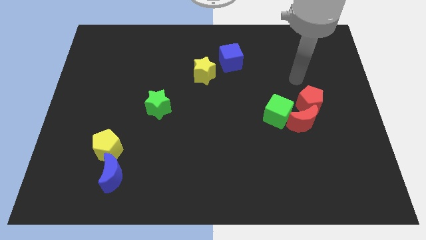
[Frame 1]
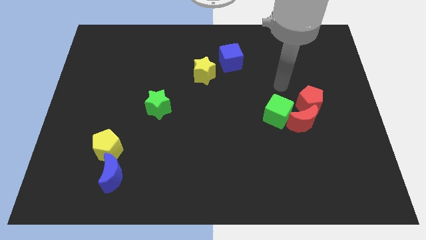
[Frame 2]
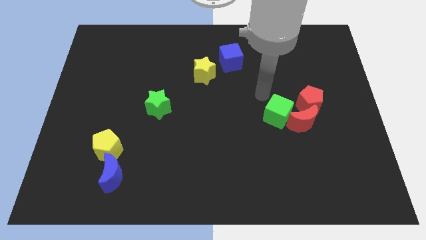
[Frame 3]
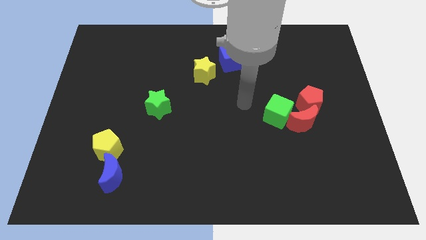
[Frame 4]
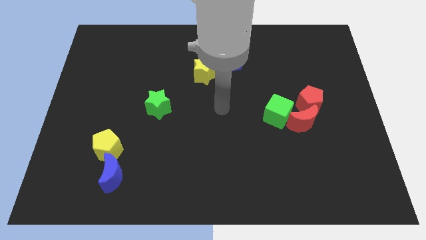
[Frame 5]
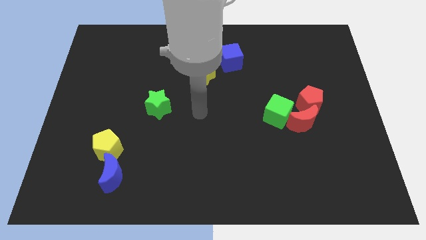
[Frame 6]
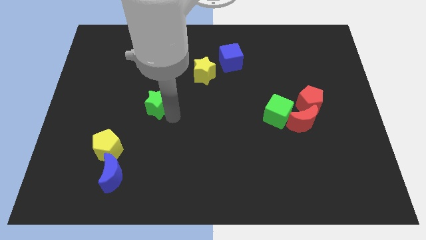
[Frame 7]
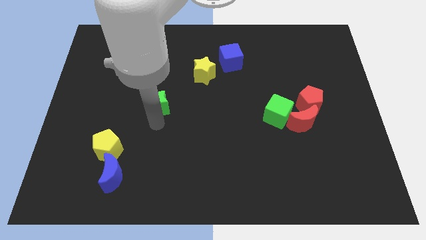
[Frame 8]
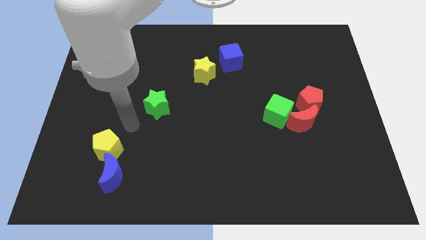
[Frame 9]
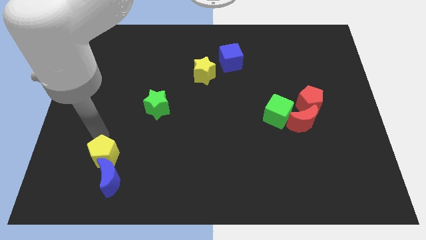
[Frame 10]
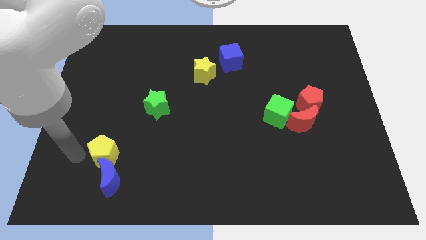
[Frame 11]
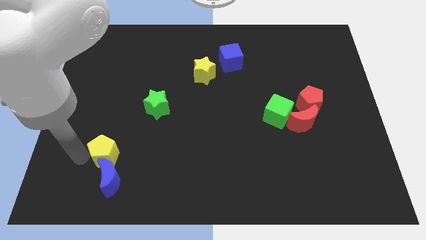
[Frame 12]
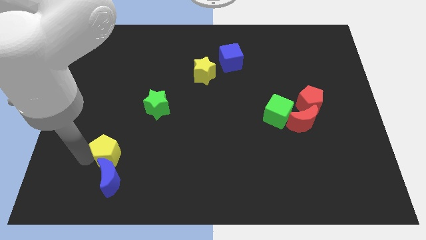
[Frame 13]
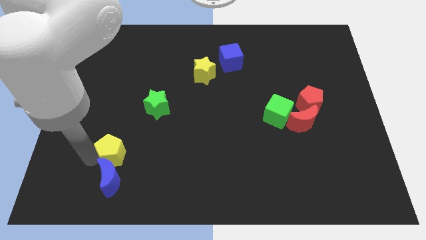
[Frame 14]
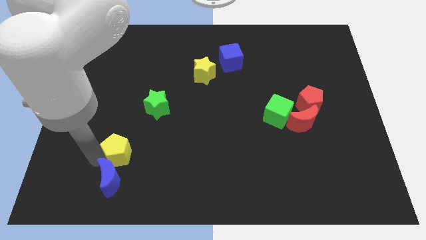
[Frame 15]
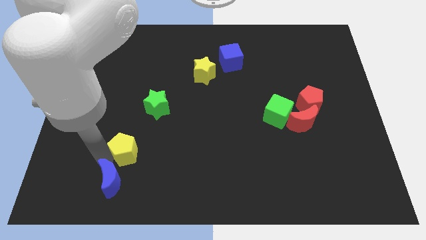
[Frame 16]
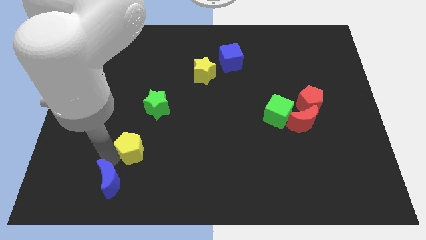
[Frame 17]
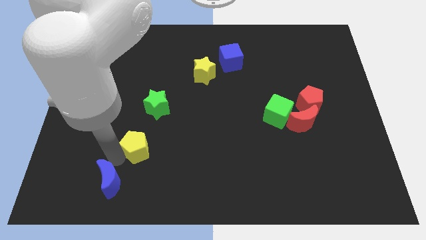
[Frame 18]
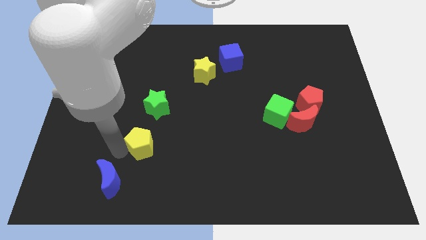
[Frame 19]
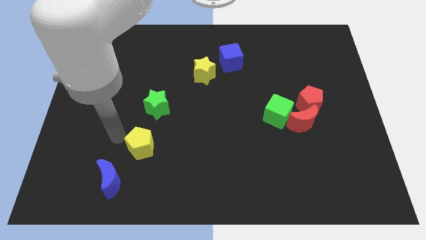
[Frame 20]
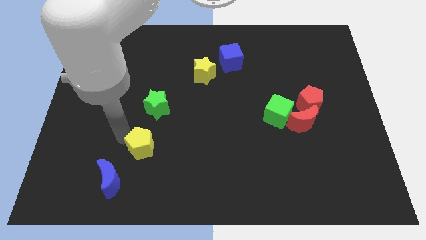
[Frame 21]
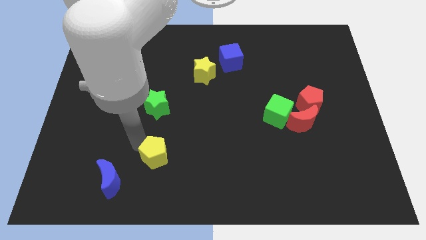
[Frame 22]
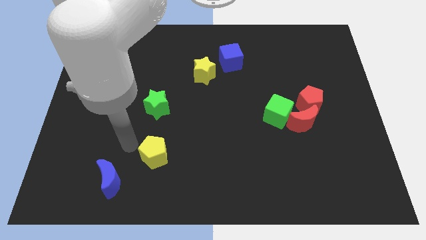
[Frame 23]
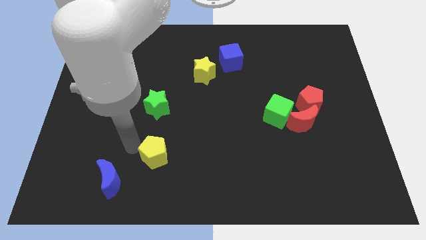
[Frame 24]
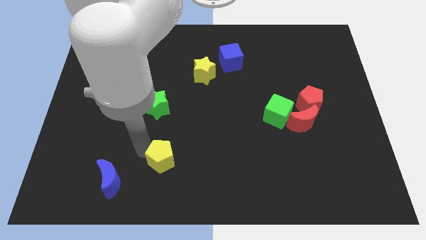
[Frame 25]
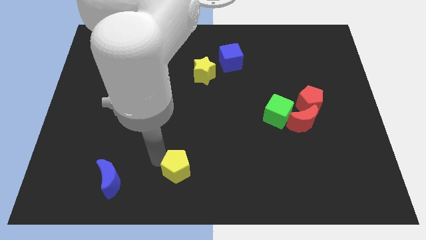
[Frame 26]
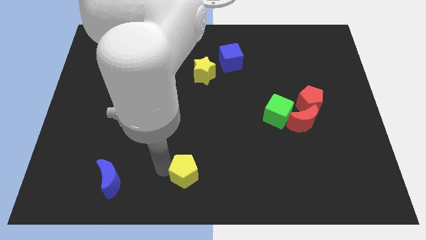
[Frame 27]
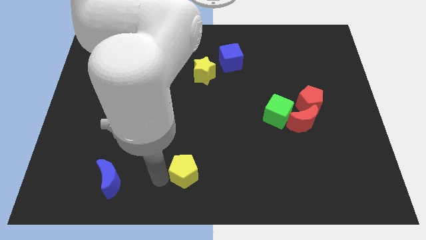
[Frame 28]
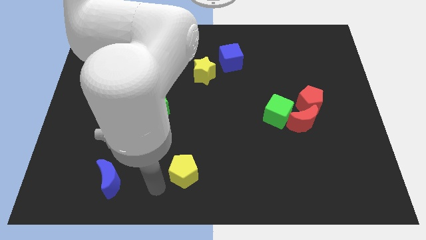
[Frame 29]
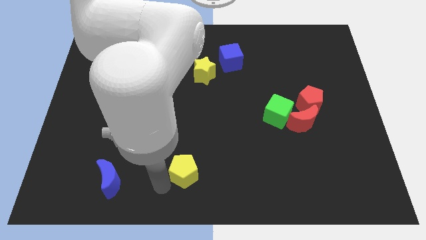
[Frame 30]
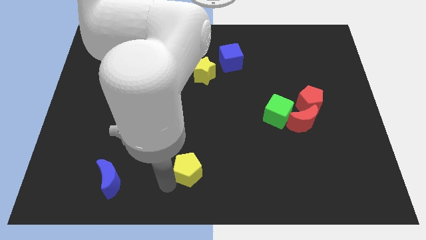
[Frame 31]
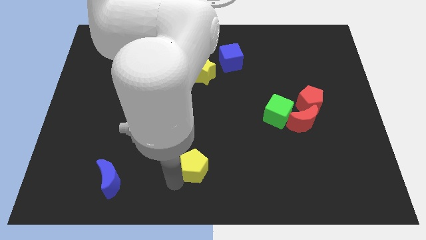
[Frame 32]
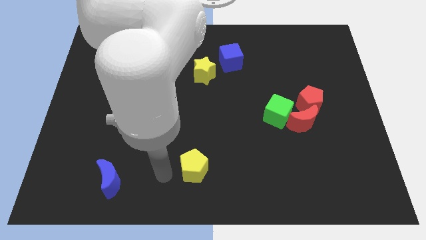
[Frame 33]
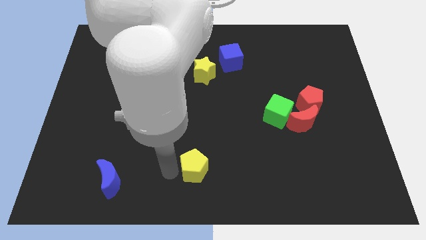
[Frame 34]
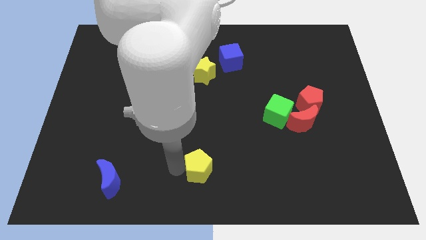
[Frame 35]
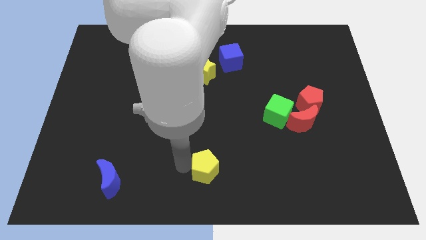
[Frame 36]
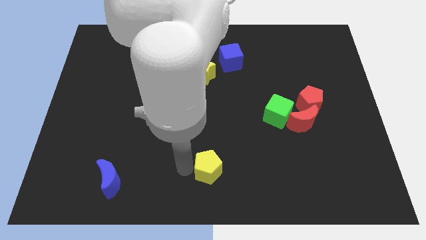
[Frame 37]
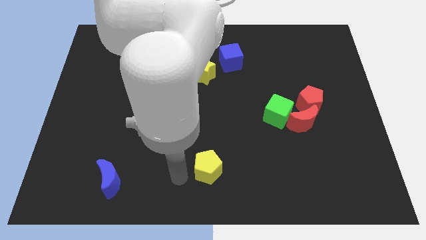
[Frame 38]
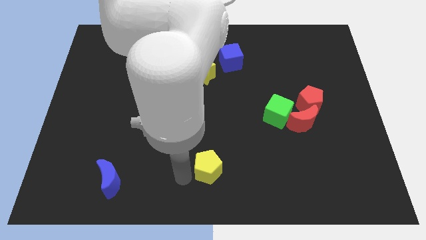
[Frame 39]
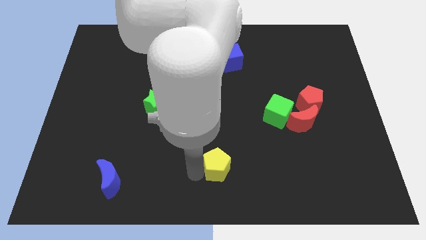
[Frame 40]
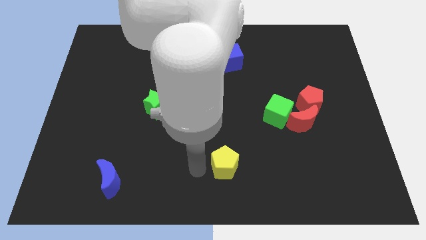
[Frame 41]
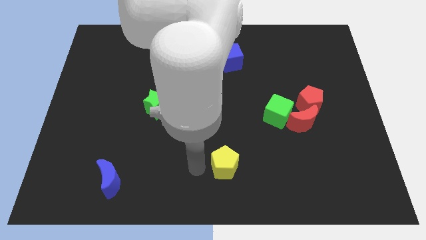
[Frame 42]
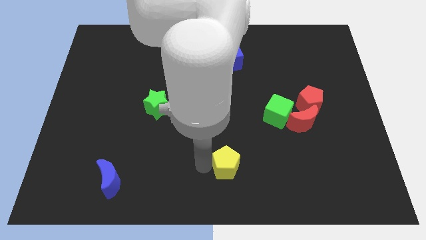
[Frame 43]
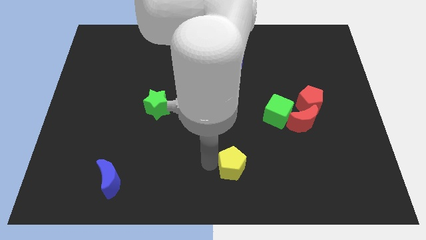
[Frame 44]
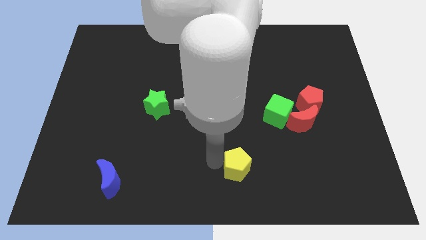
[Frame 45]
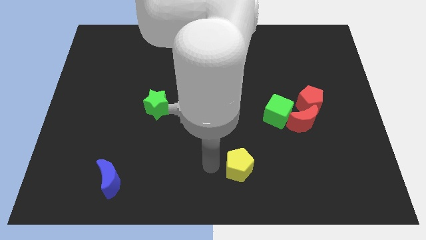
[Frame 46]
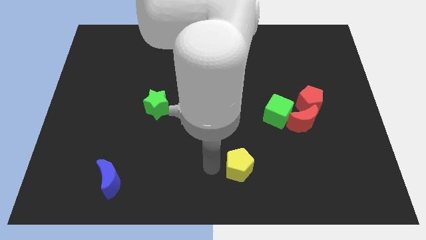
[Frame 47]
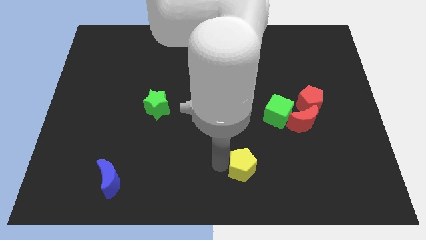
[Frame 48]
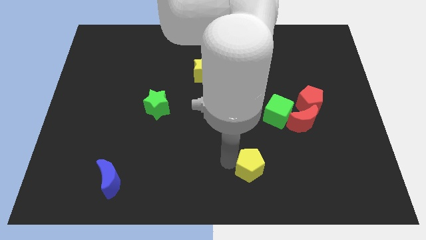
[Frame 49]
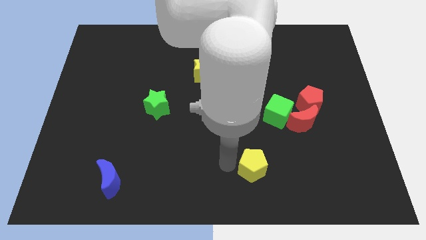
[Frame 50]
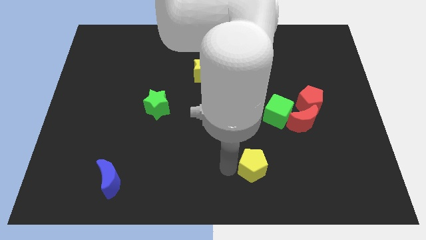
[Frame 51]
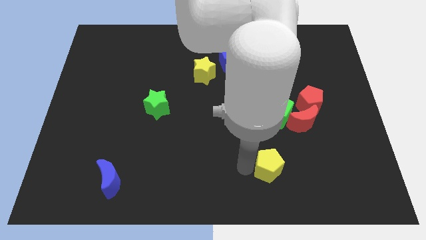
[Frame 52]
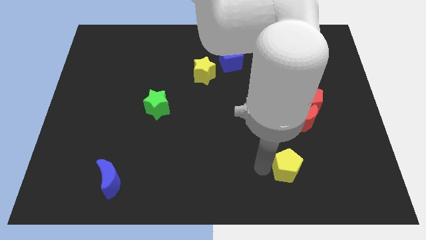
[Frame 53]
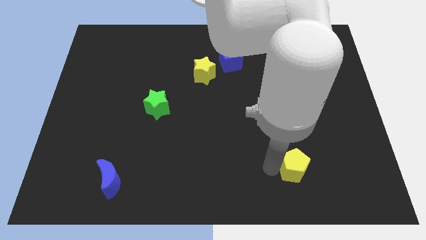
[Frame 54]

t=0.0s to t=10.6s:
move the yellow pentagon to the bottom of the red moon

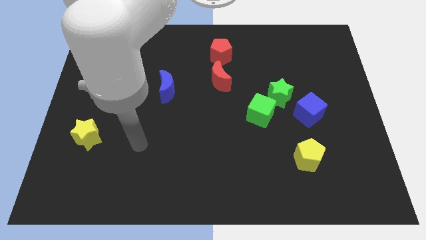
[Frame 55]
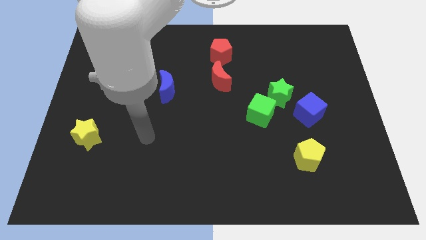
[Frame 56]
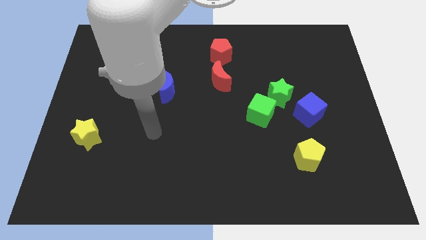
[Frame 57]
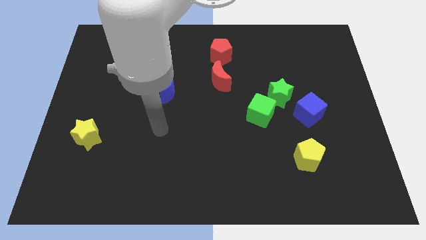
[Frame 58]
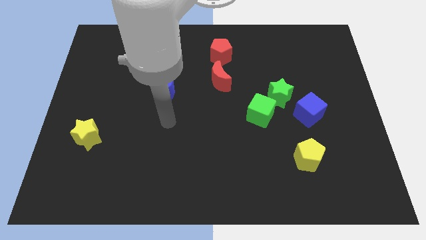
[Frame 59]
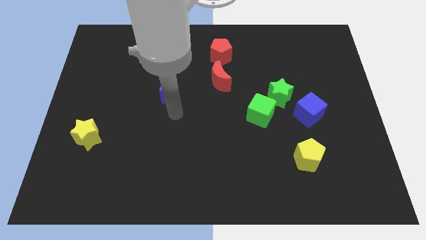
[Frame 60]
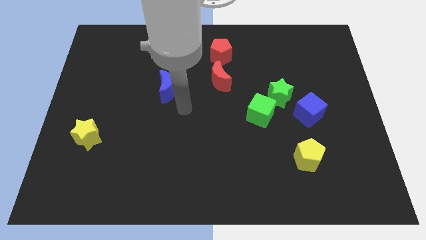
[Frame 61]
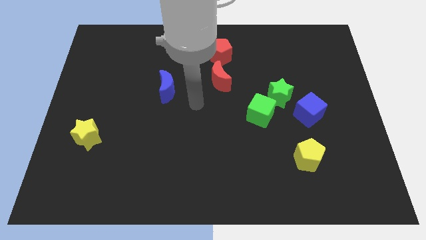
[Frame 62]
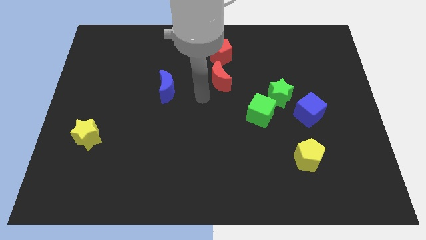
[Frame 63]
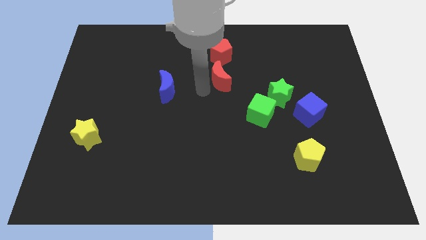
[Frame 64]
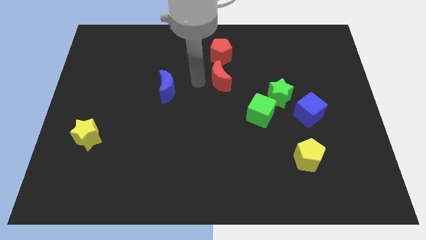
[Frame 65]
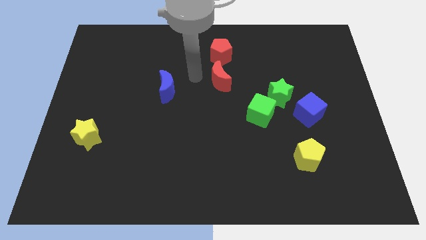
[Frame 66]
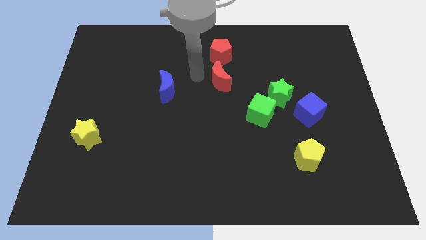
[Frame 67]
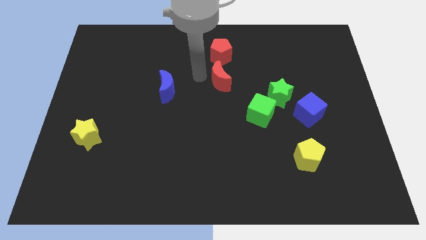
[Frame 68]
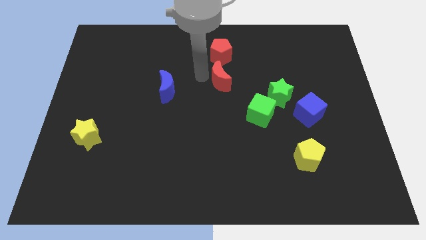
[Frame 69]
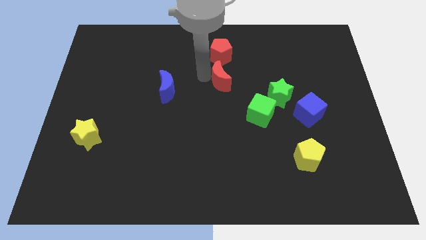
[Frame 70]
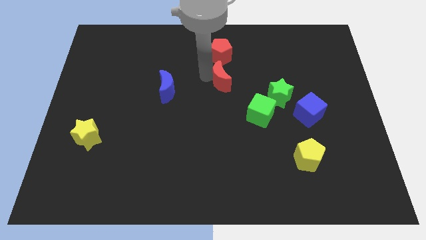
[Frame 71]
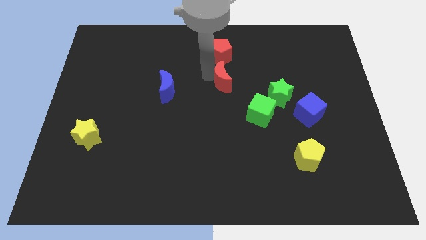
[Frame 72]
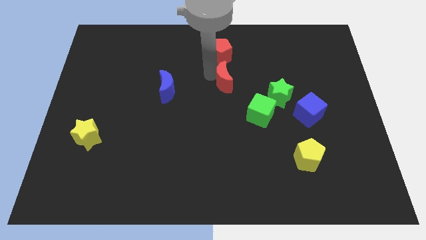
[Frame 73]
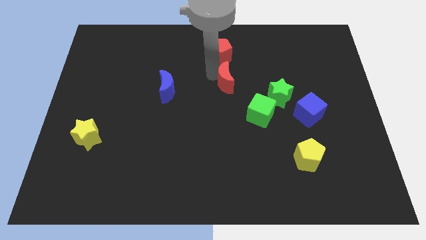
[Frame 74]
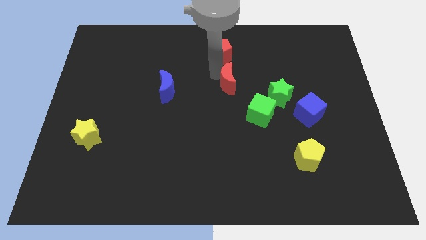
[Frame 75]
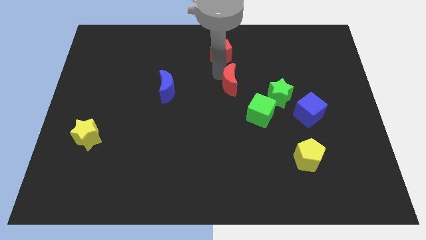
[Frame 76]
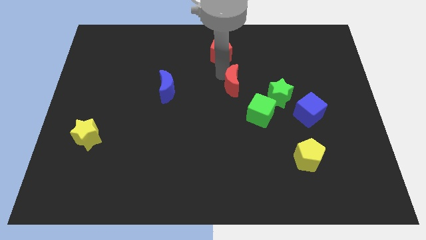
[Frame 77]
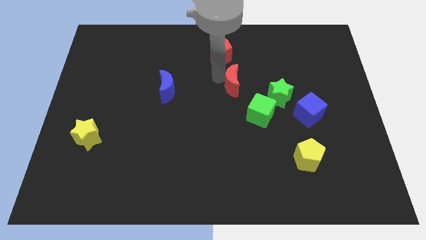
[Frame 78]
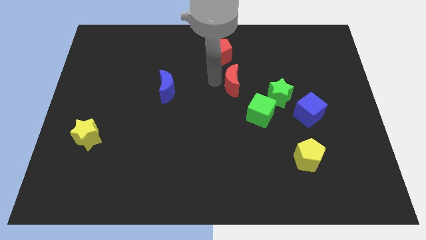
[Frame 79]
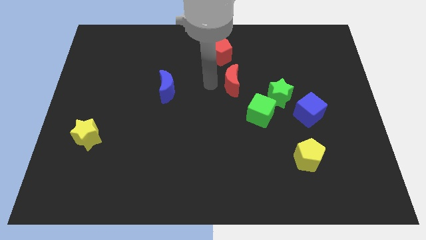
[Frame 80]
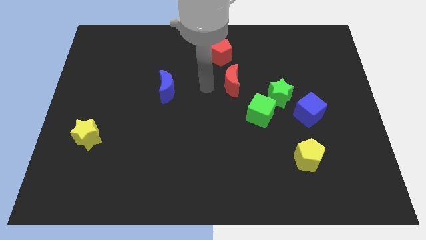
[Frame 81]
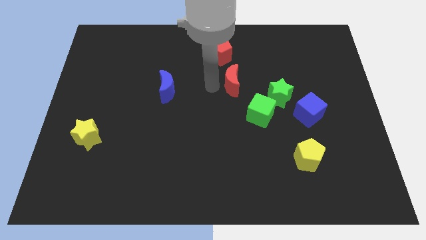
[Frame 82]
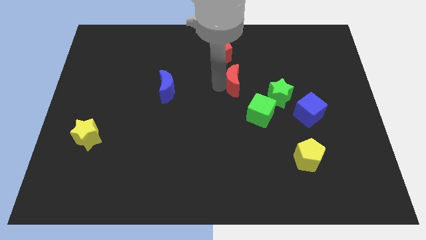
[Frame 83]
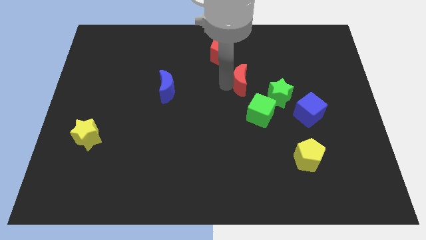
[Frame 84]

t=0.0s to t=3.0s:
move the red moon above the green cube
